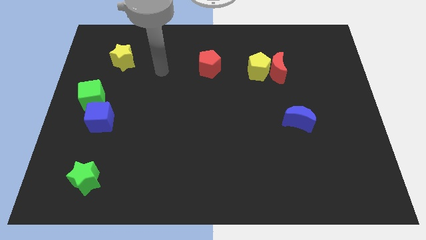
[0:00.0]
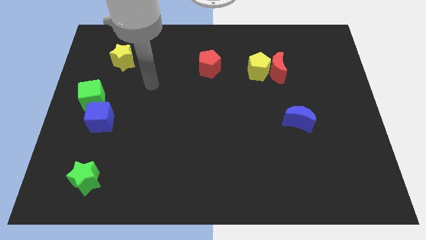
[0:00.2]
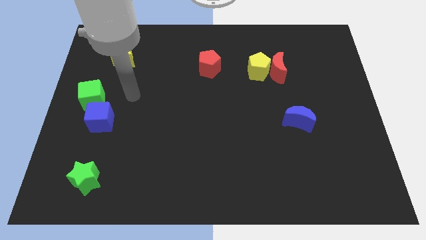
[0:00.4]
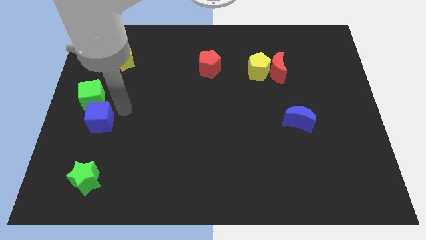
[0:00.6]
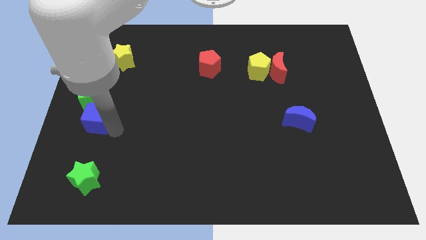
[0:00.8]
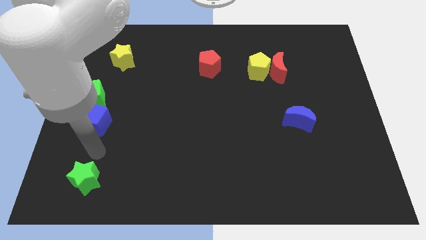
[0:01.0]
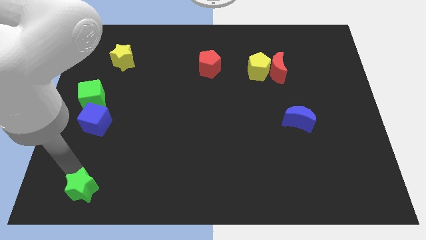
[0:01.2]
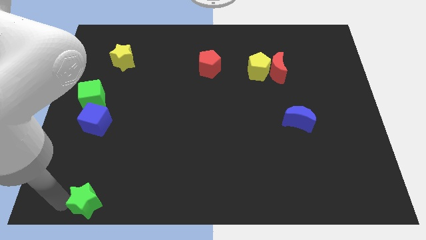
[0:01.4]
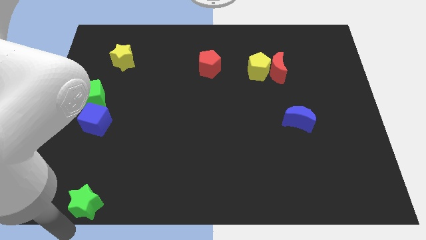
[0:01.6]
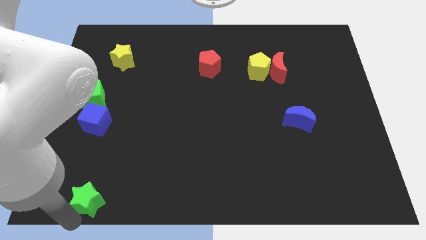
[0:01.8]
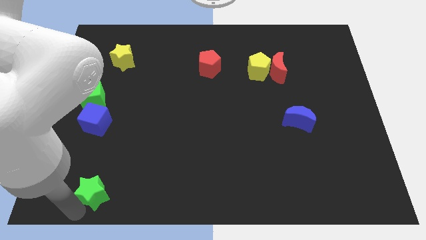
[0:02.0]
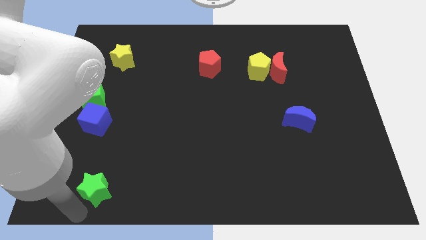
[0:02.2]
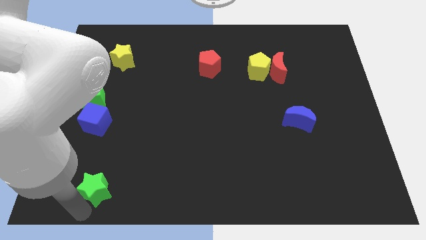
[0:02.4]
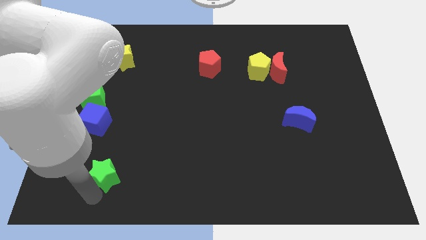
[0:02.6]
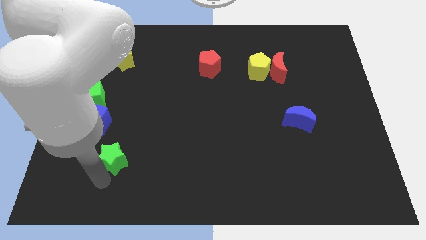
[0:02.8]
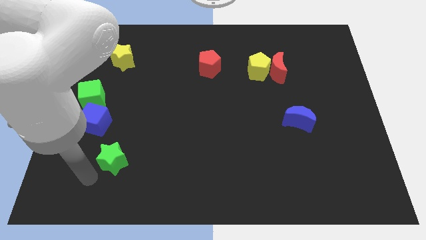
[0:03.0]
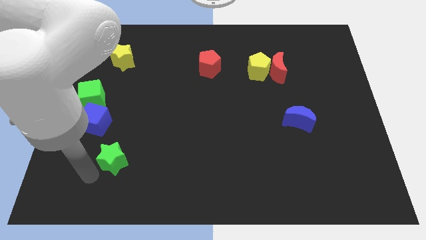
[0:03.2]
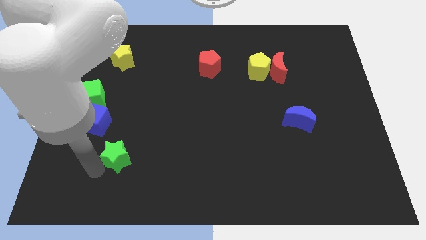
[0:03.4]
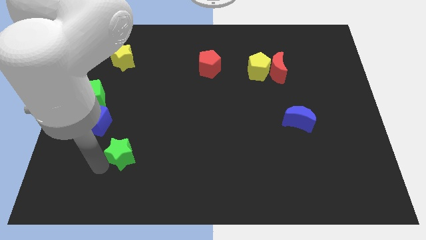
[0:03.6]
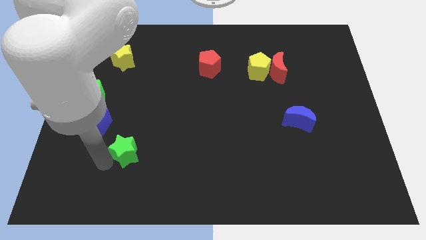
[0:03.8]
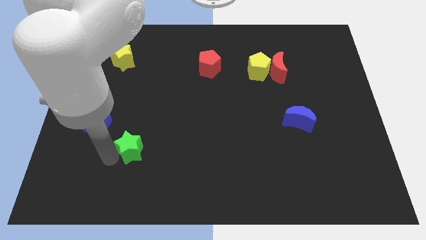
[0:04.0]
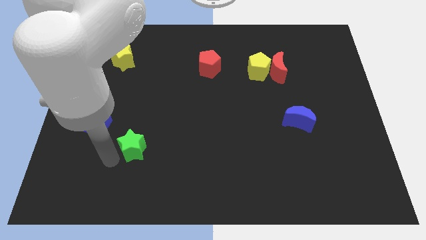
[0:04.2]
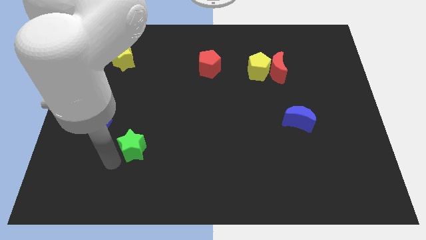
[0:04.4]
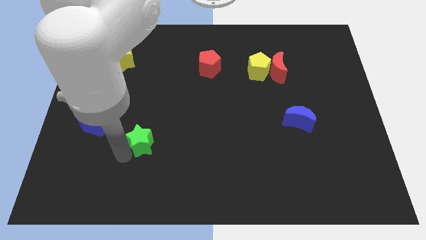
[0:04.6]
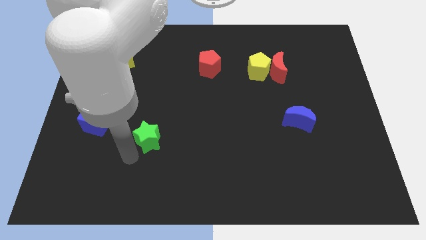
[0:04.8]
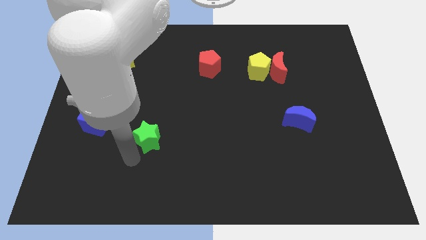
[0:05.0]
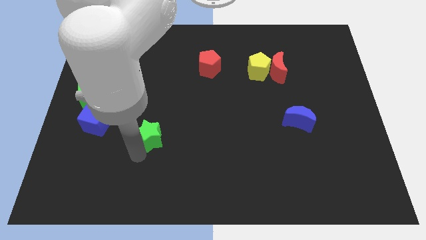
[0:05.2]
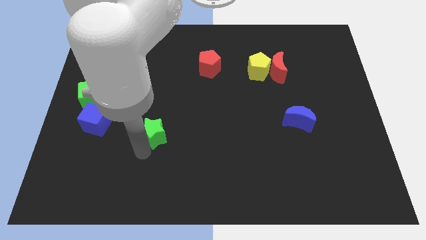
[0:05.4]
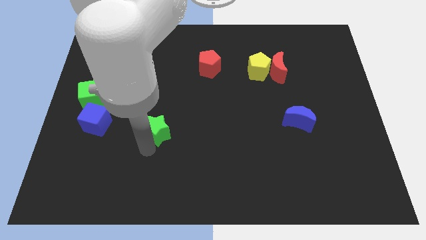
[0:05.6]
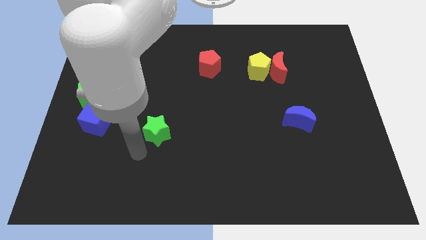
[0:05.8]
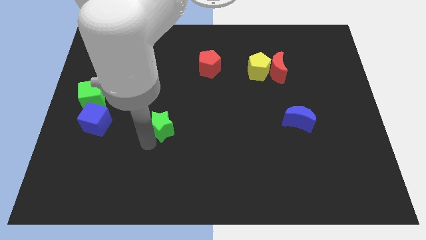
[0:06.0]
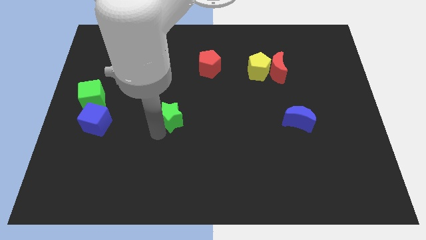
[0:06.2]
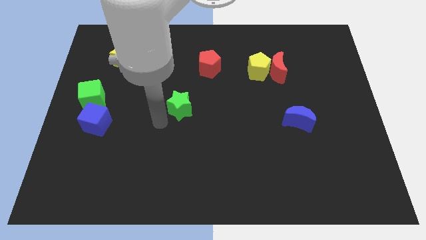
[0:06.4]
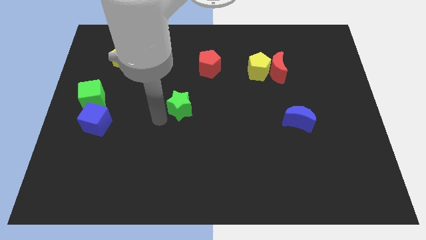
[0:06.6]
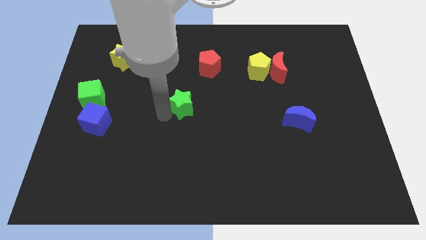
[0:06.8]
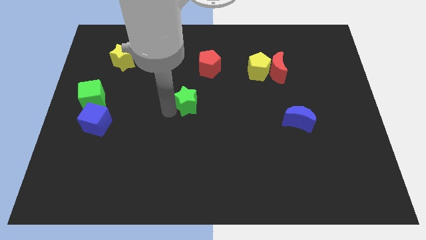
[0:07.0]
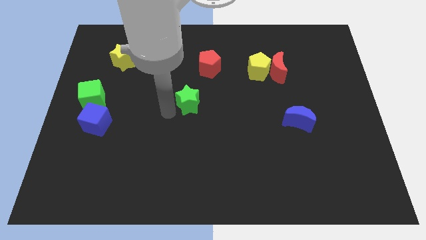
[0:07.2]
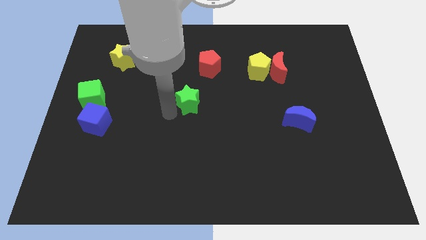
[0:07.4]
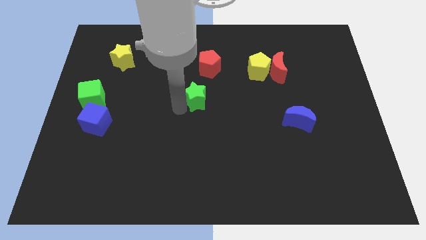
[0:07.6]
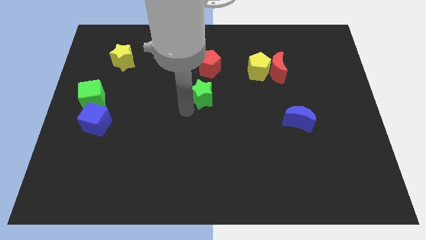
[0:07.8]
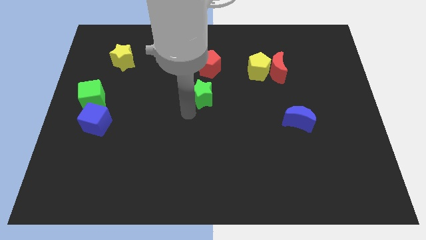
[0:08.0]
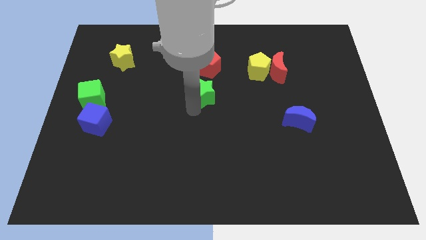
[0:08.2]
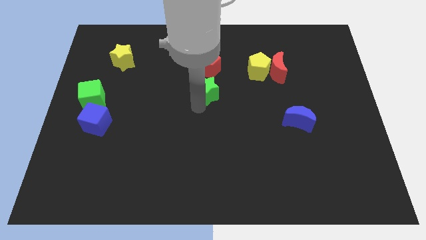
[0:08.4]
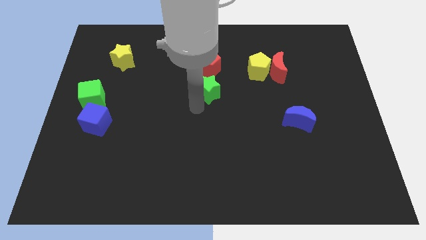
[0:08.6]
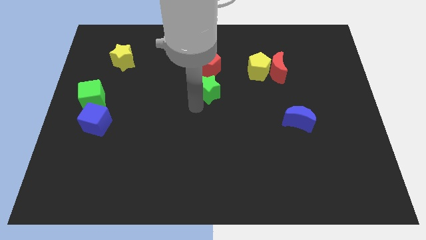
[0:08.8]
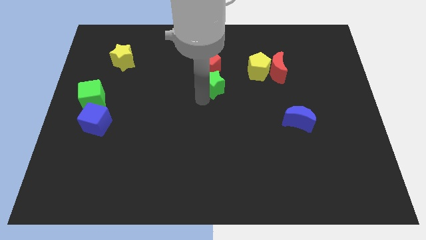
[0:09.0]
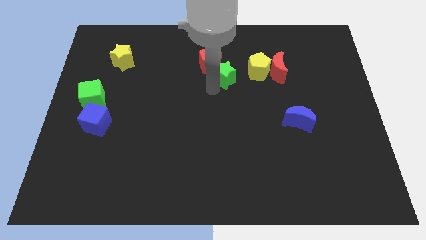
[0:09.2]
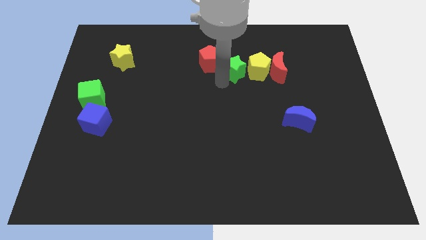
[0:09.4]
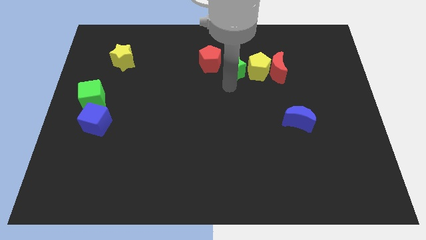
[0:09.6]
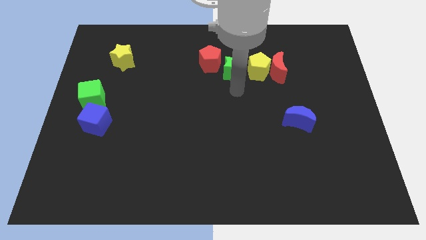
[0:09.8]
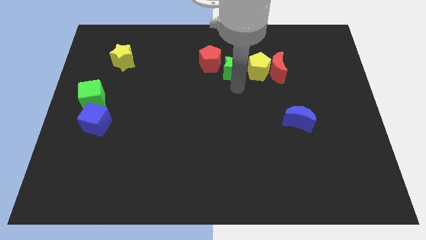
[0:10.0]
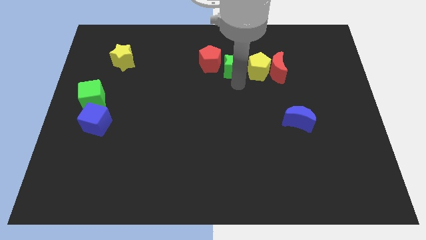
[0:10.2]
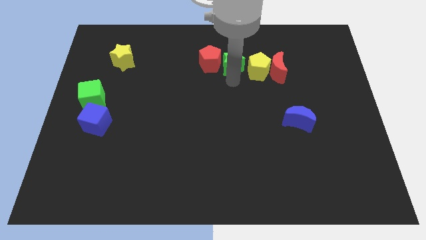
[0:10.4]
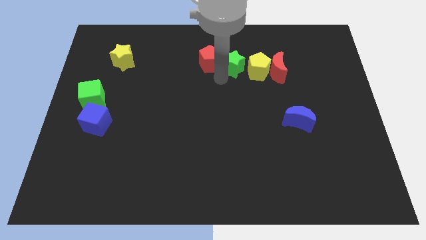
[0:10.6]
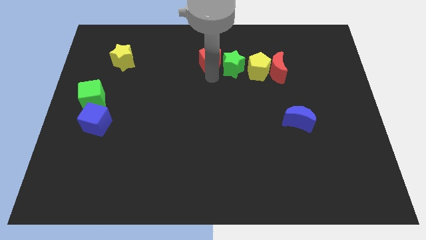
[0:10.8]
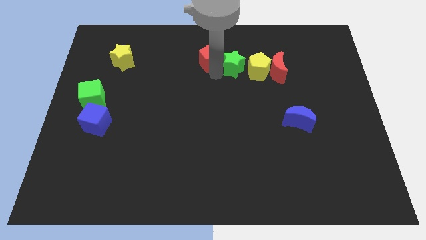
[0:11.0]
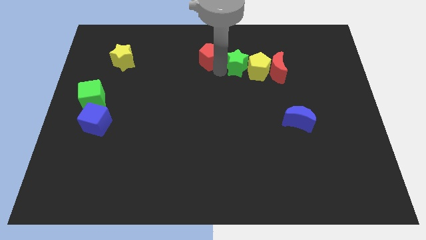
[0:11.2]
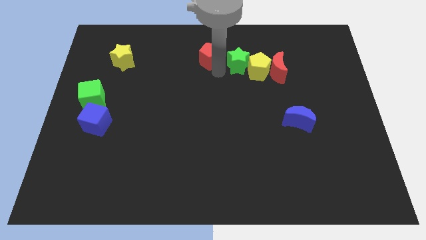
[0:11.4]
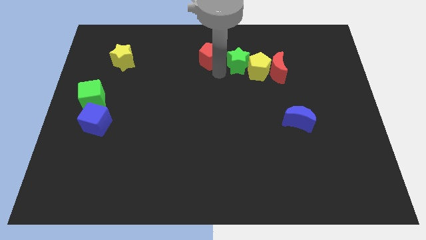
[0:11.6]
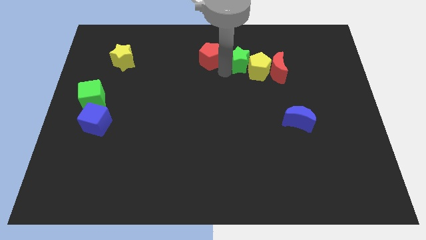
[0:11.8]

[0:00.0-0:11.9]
push the green star diagonally up and to the left of the red moon
